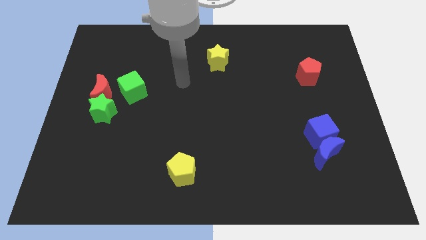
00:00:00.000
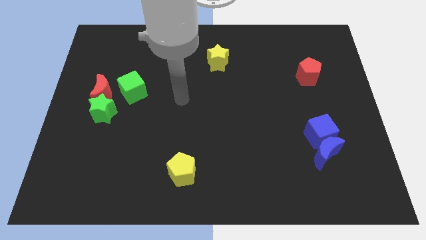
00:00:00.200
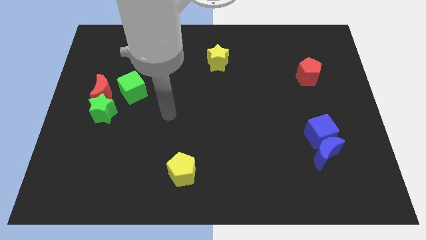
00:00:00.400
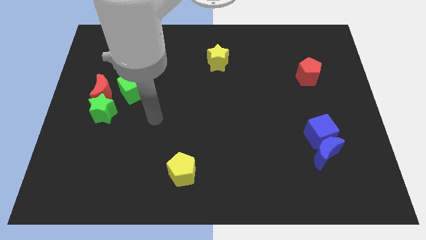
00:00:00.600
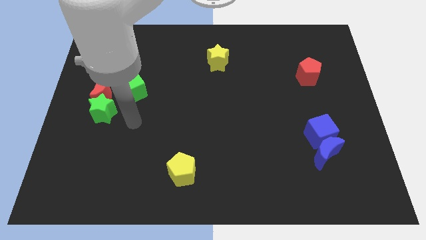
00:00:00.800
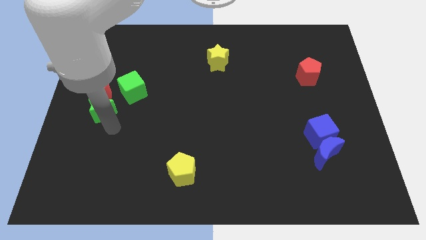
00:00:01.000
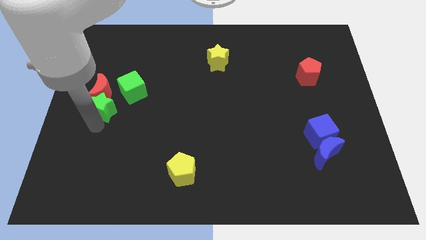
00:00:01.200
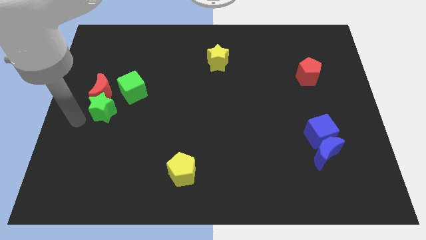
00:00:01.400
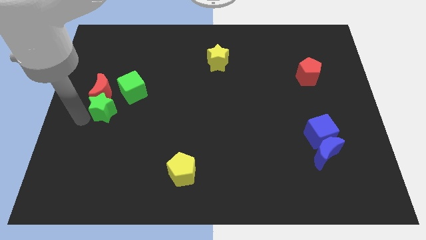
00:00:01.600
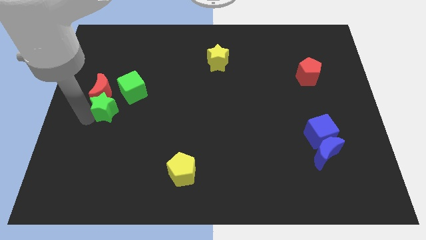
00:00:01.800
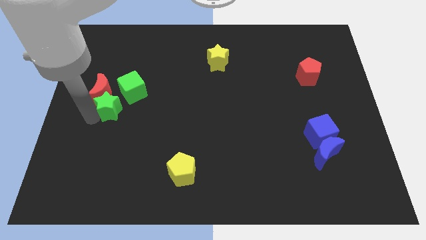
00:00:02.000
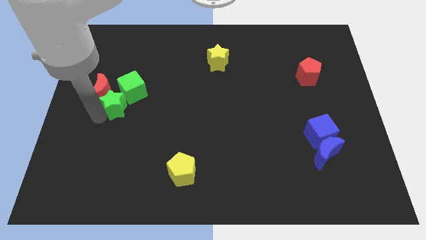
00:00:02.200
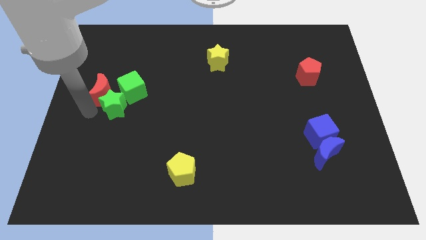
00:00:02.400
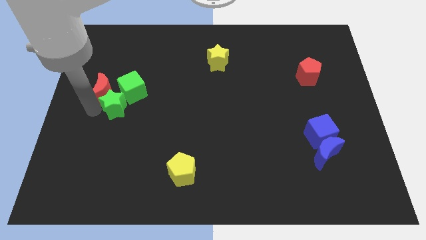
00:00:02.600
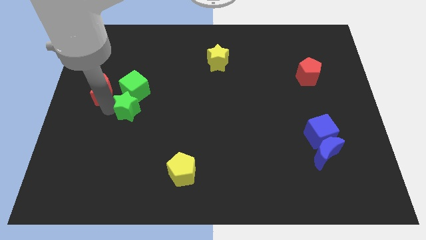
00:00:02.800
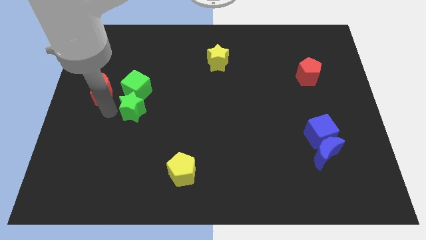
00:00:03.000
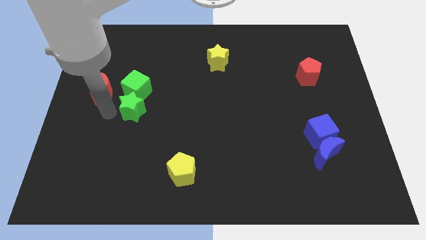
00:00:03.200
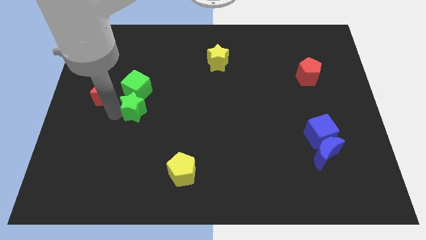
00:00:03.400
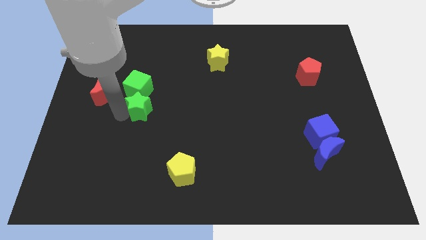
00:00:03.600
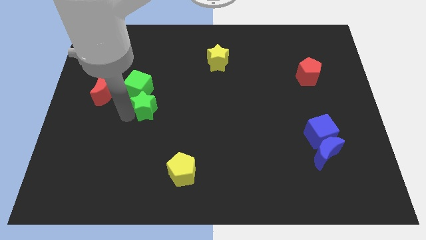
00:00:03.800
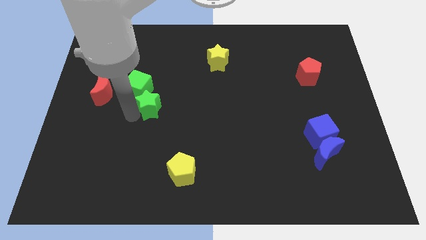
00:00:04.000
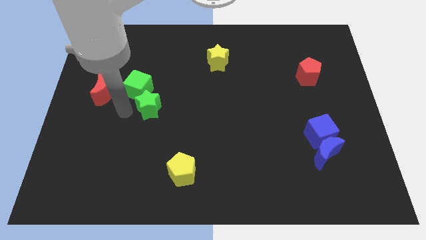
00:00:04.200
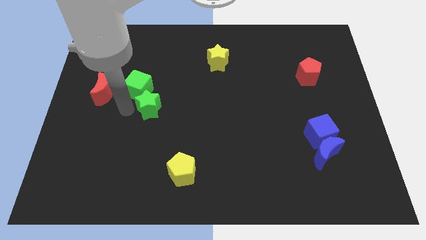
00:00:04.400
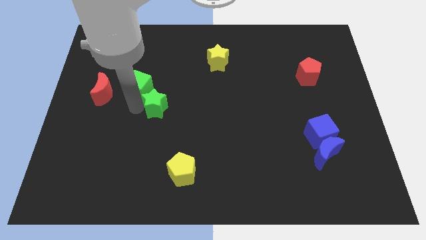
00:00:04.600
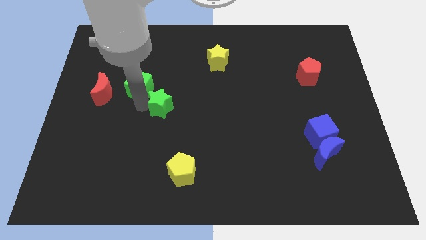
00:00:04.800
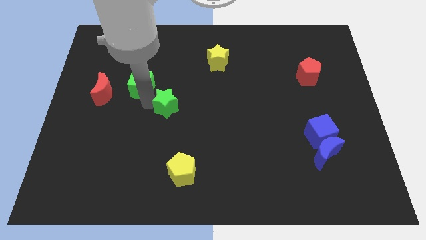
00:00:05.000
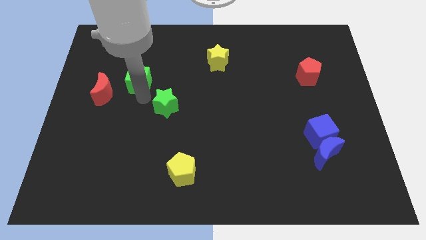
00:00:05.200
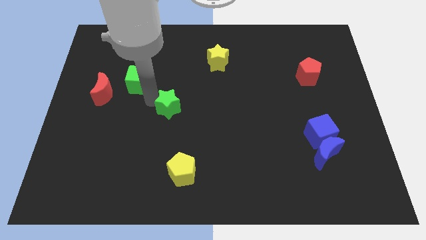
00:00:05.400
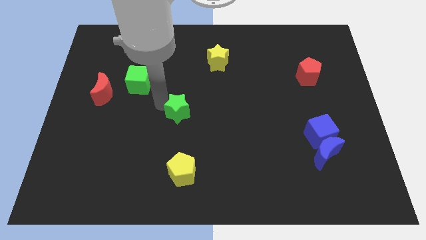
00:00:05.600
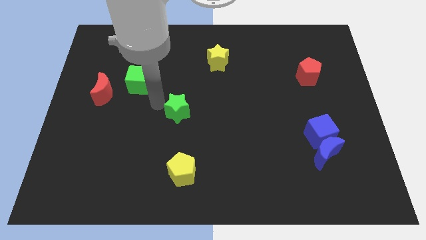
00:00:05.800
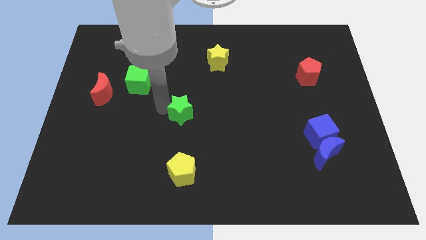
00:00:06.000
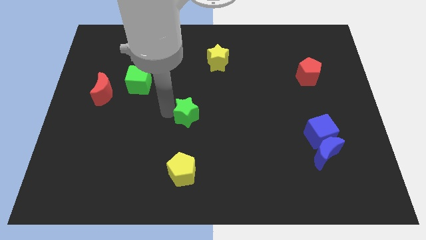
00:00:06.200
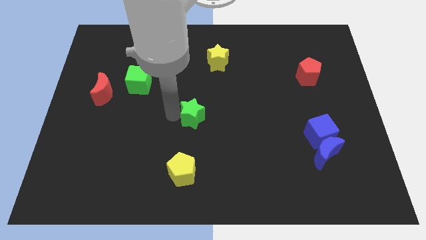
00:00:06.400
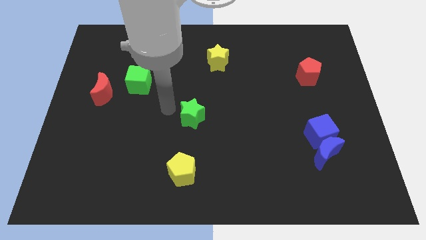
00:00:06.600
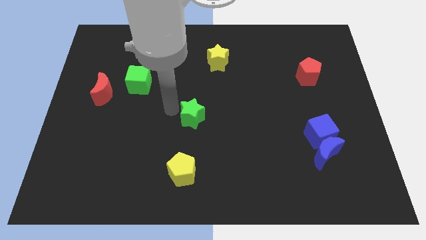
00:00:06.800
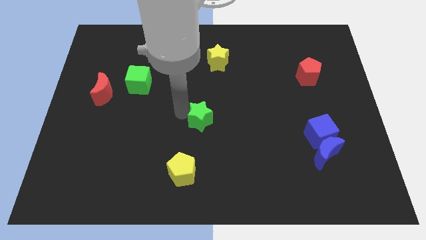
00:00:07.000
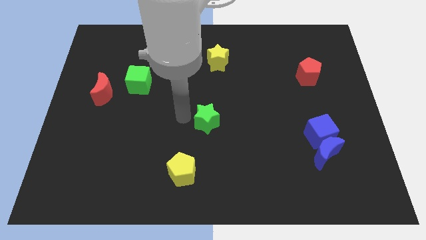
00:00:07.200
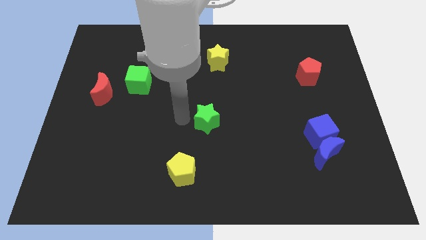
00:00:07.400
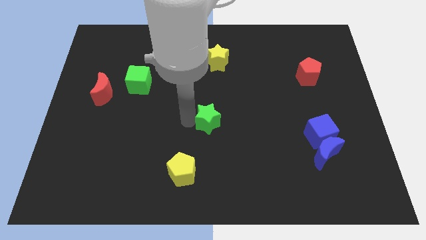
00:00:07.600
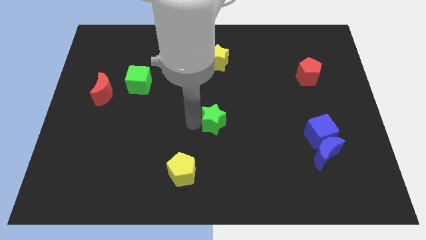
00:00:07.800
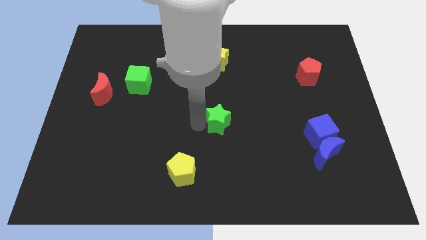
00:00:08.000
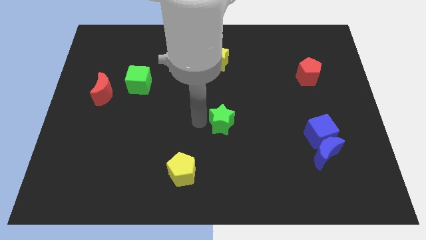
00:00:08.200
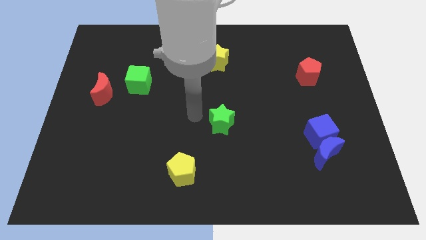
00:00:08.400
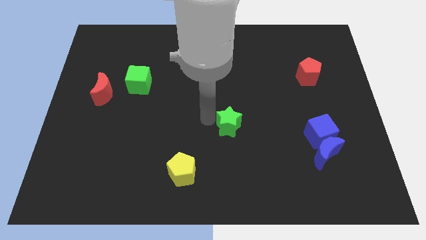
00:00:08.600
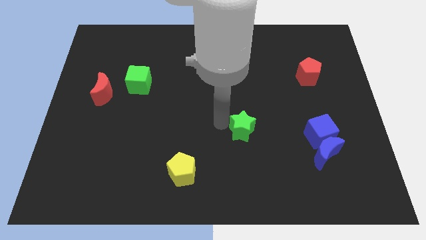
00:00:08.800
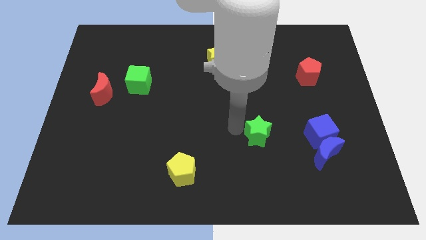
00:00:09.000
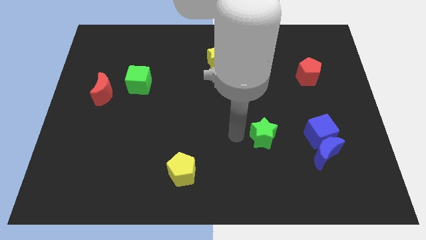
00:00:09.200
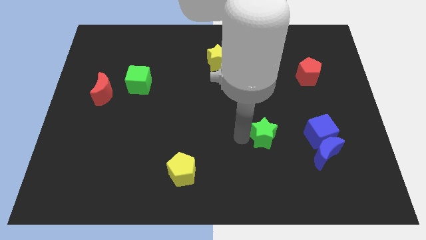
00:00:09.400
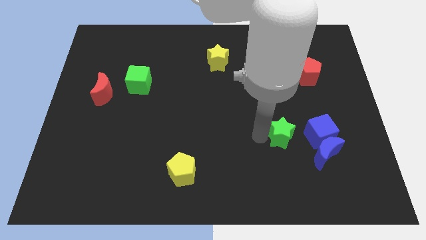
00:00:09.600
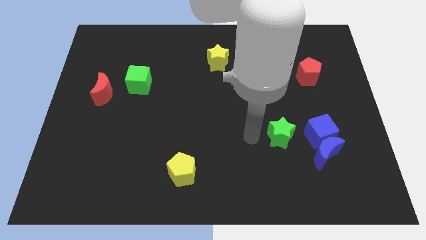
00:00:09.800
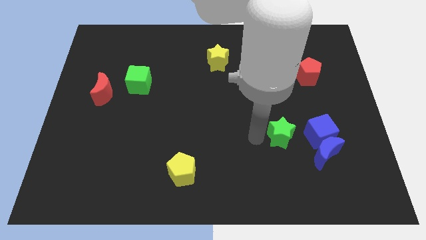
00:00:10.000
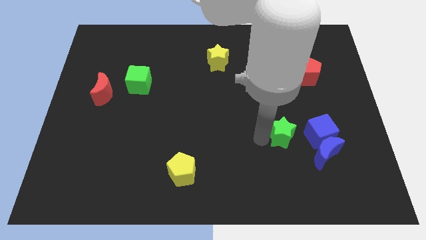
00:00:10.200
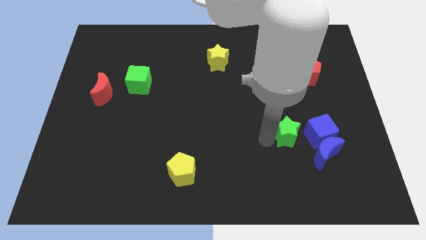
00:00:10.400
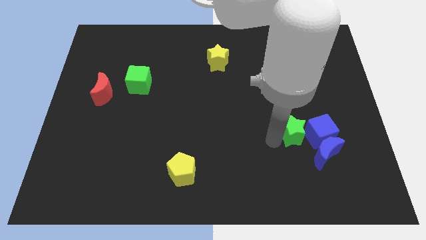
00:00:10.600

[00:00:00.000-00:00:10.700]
push the green star close to the blue cube

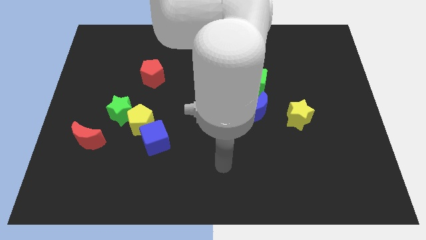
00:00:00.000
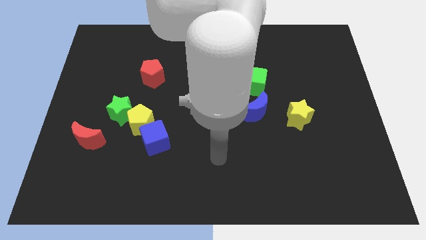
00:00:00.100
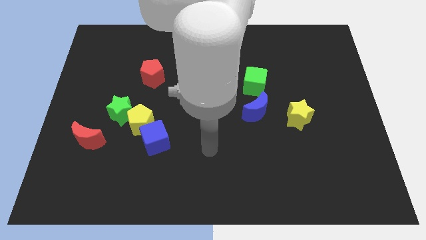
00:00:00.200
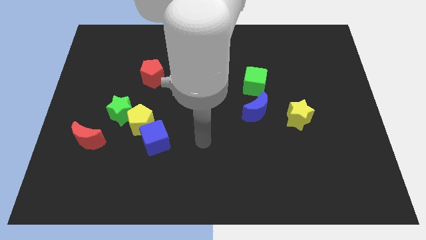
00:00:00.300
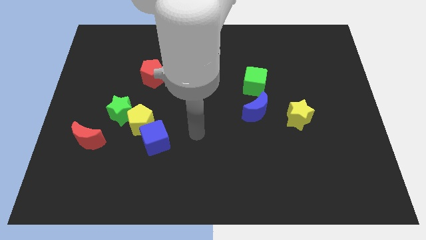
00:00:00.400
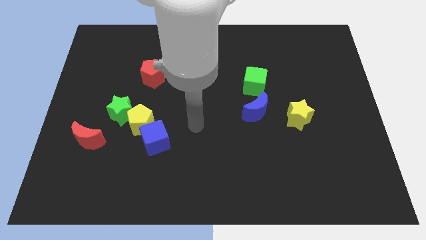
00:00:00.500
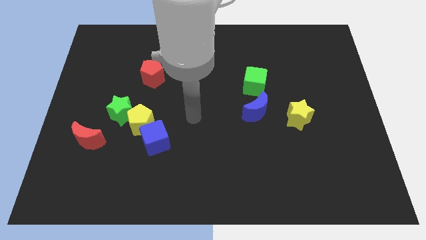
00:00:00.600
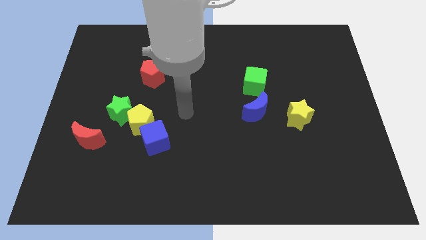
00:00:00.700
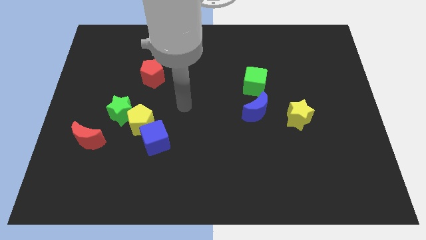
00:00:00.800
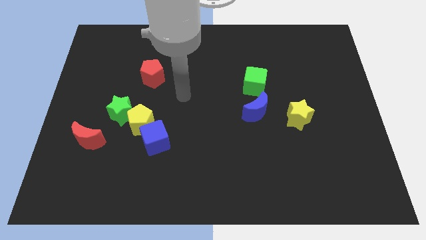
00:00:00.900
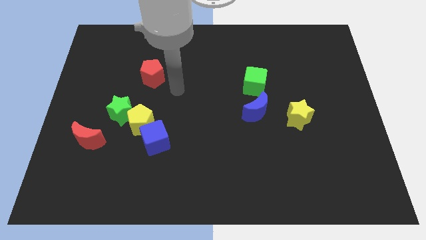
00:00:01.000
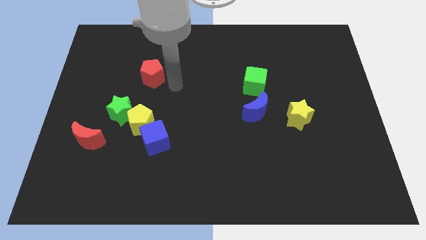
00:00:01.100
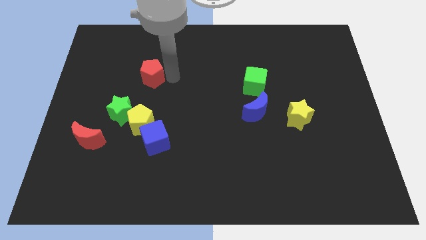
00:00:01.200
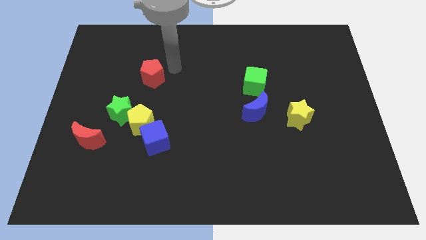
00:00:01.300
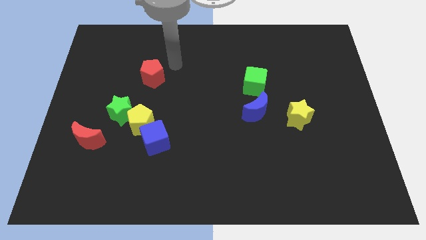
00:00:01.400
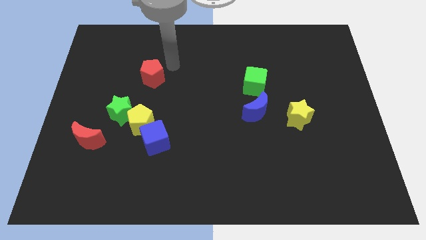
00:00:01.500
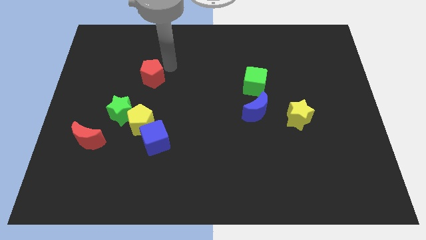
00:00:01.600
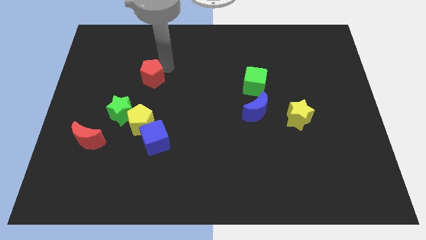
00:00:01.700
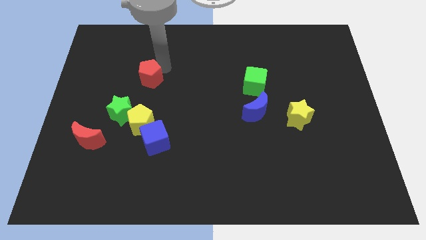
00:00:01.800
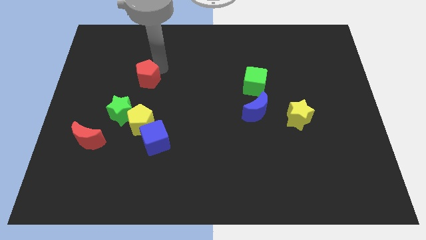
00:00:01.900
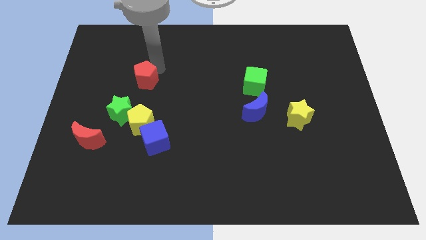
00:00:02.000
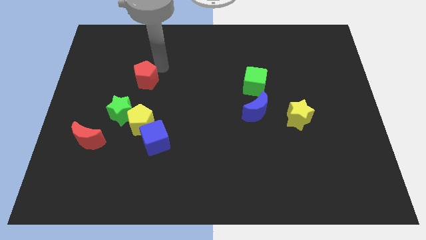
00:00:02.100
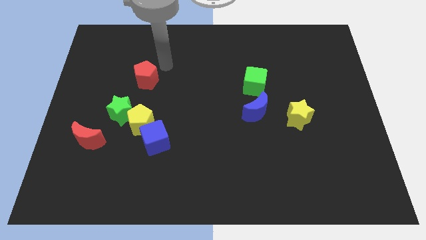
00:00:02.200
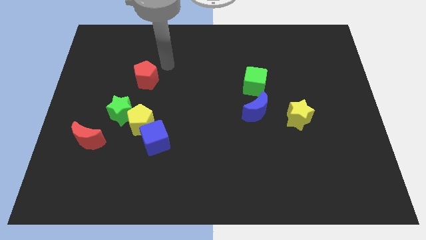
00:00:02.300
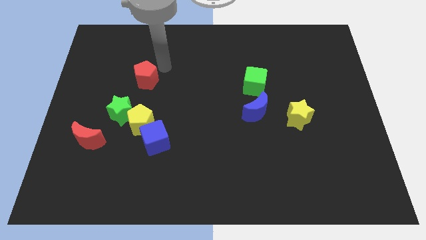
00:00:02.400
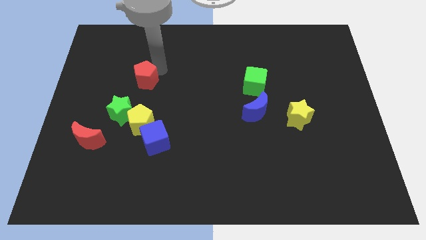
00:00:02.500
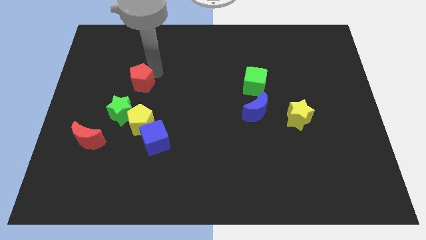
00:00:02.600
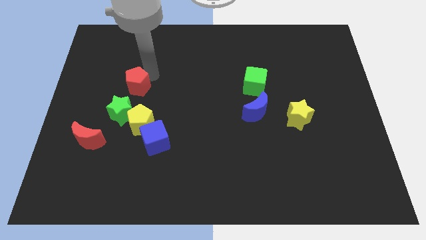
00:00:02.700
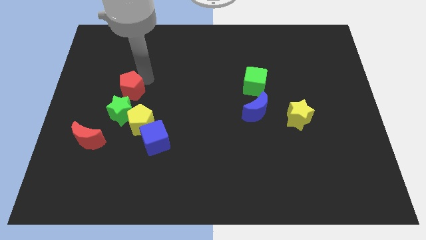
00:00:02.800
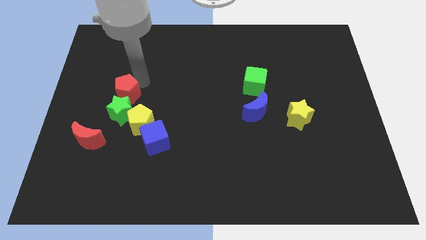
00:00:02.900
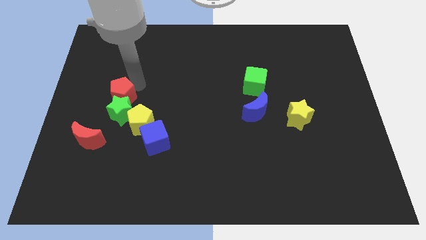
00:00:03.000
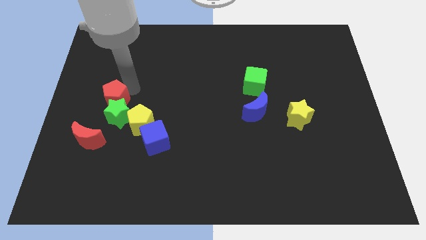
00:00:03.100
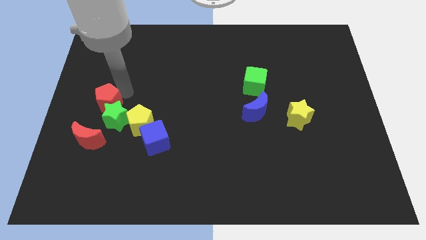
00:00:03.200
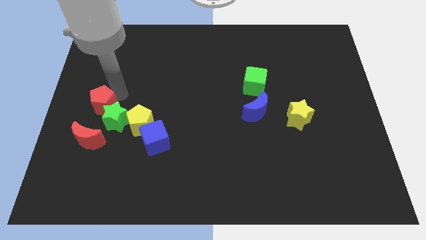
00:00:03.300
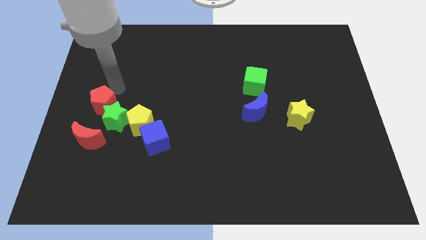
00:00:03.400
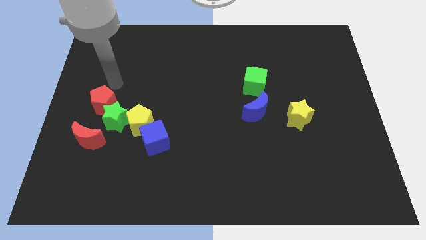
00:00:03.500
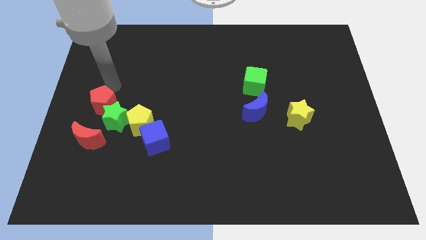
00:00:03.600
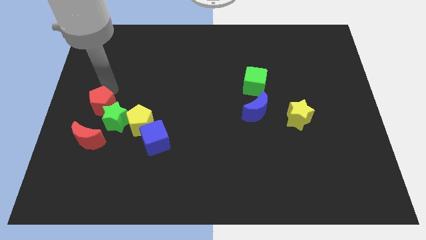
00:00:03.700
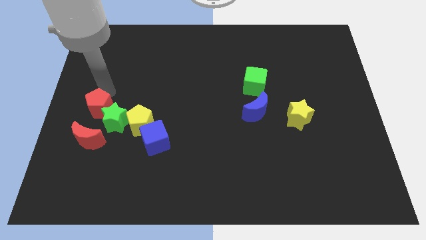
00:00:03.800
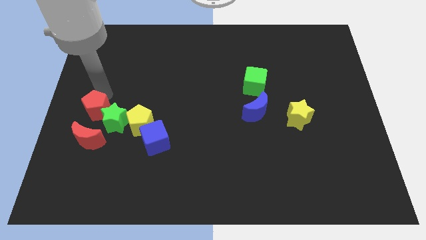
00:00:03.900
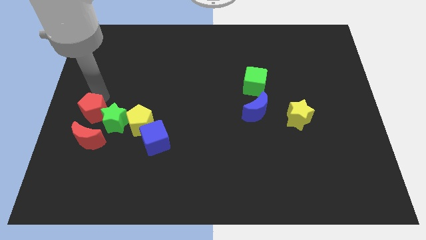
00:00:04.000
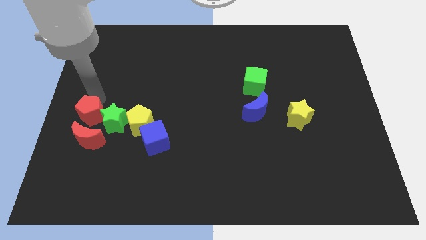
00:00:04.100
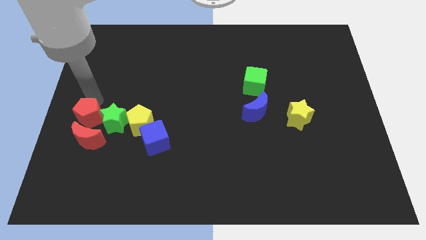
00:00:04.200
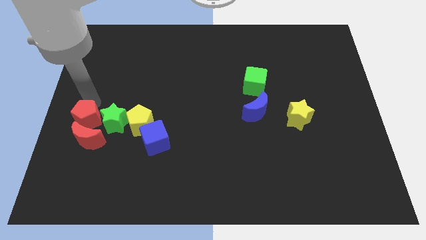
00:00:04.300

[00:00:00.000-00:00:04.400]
push the red pentagon close to the red moon
